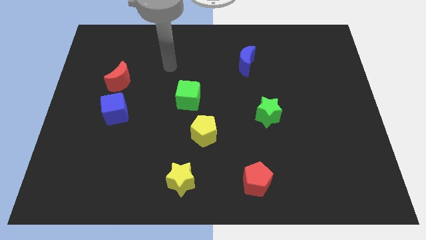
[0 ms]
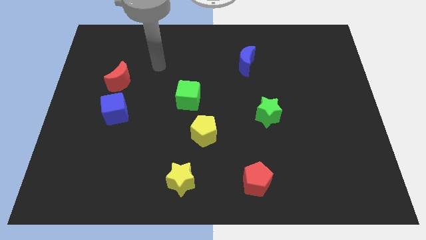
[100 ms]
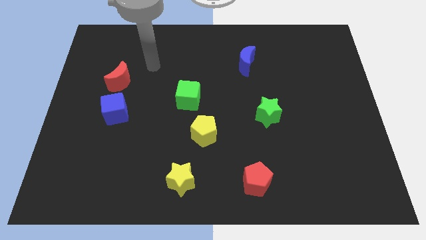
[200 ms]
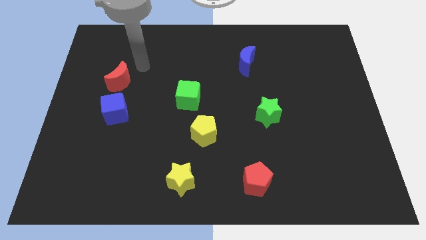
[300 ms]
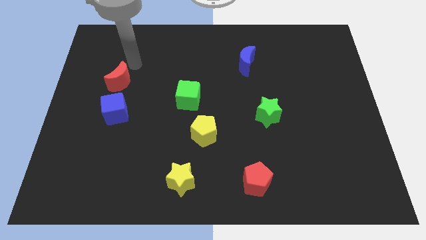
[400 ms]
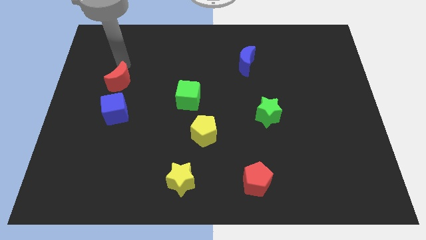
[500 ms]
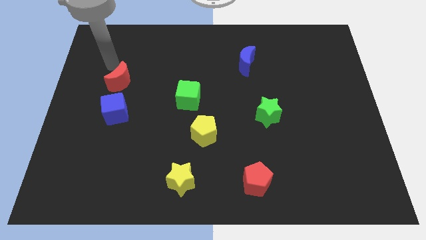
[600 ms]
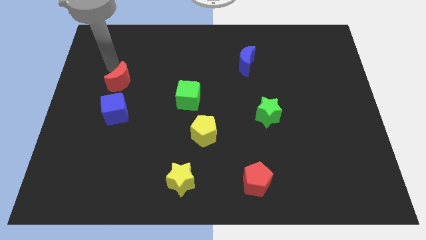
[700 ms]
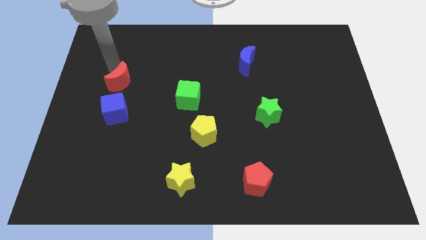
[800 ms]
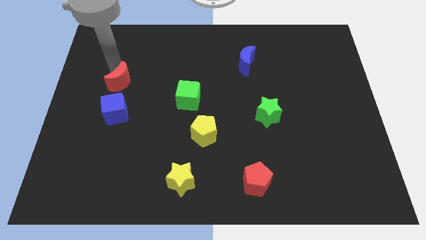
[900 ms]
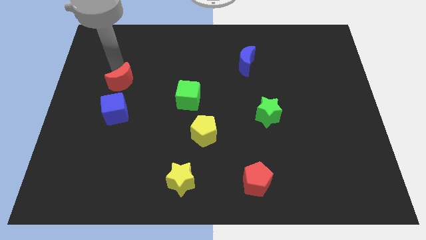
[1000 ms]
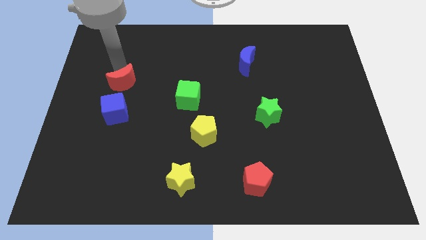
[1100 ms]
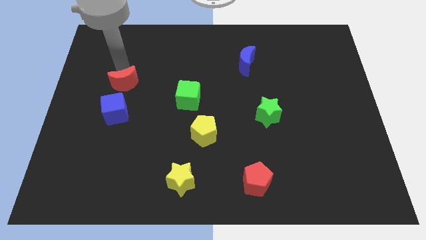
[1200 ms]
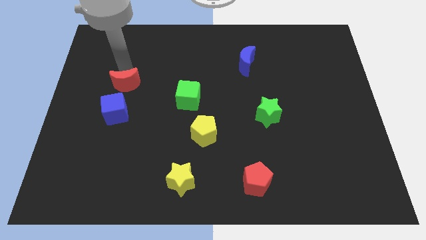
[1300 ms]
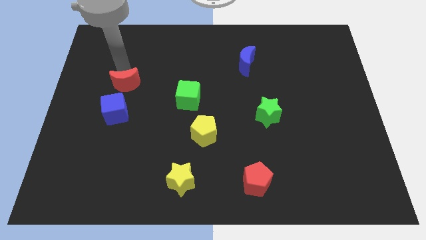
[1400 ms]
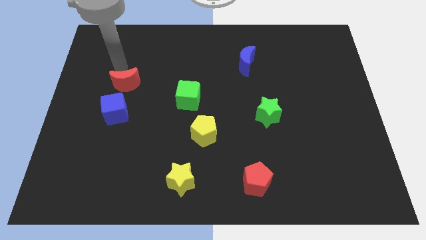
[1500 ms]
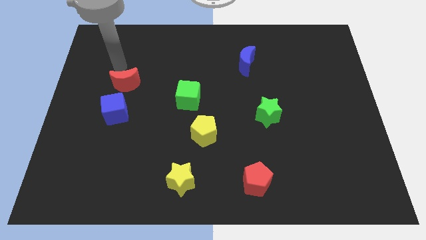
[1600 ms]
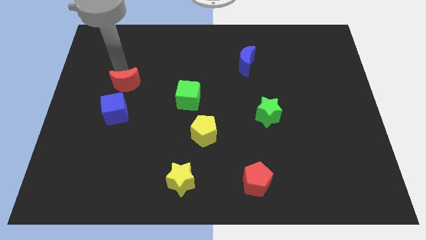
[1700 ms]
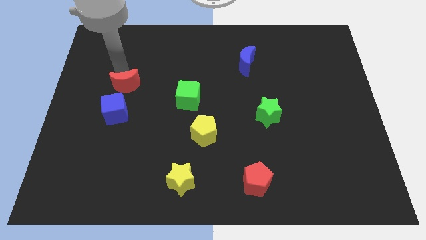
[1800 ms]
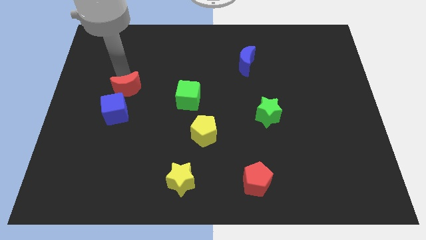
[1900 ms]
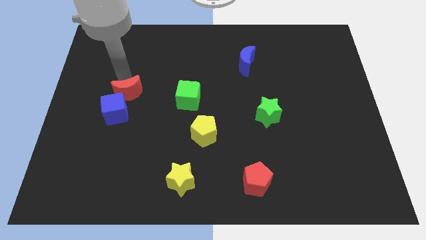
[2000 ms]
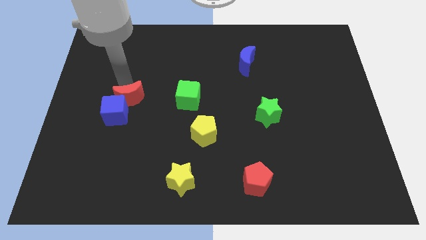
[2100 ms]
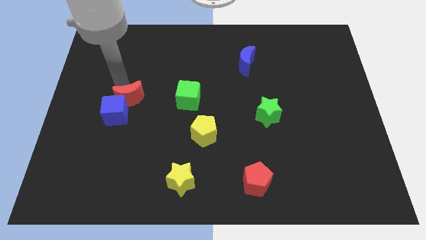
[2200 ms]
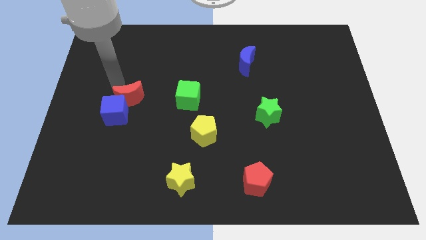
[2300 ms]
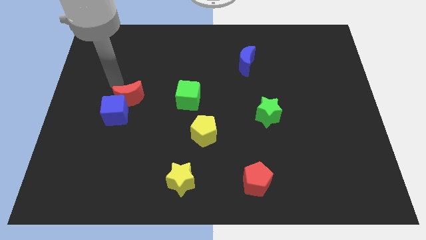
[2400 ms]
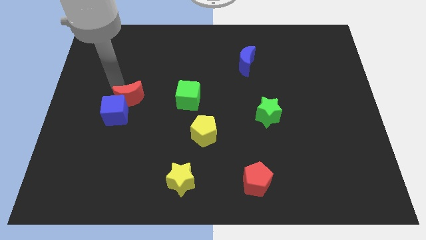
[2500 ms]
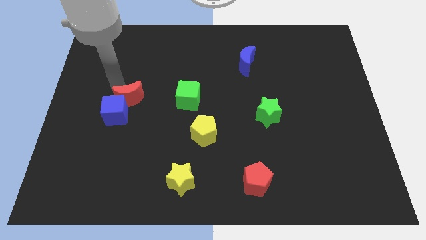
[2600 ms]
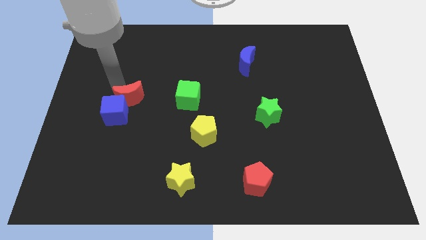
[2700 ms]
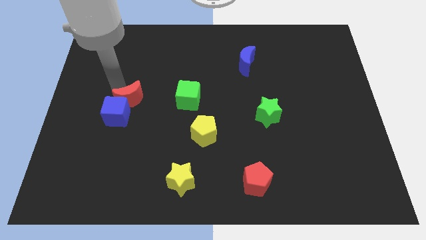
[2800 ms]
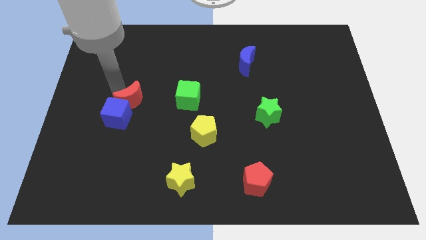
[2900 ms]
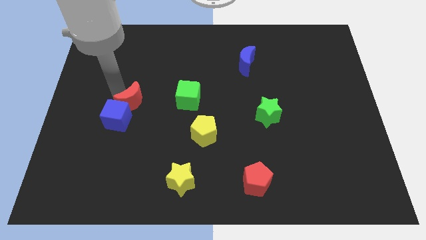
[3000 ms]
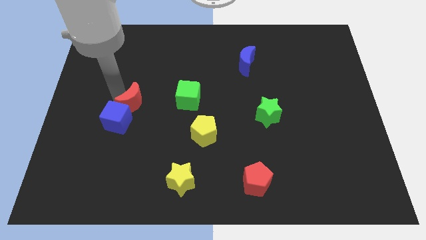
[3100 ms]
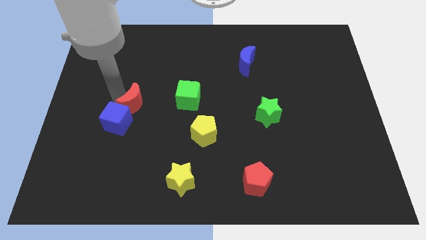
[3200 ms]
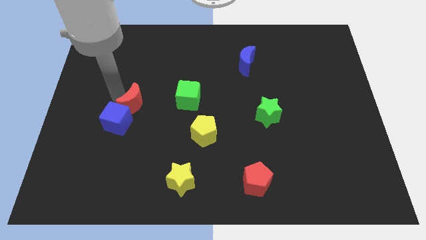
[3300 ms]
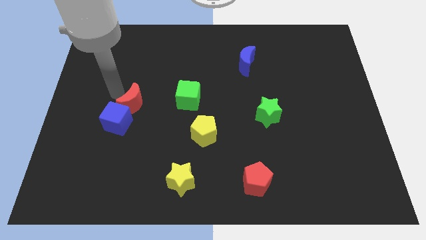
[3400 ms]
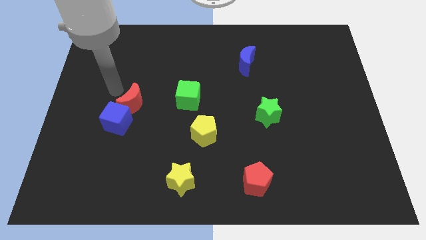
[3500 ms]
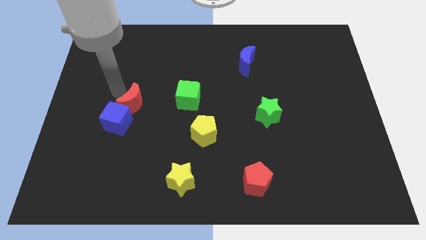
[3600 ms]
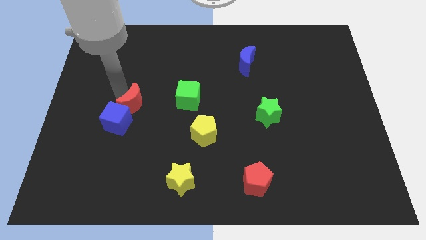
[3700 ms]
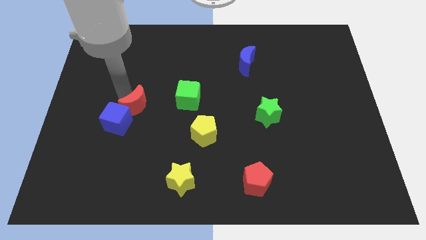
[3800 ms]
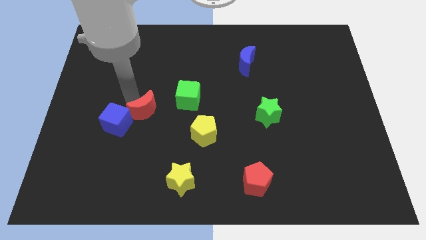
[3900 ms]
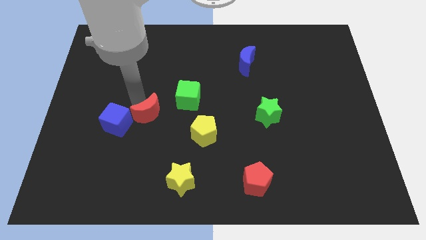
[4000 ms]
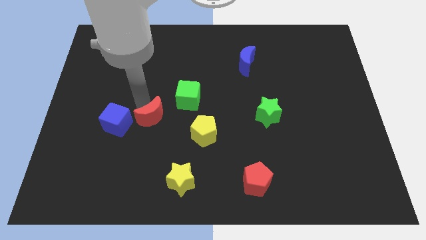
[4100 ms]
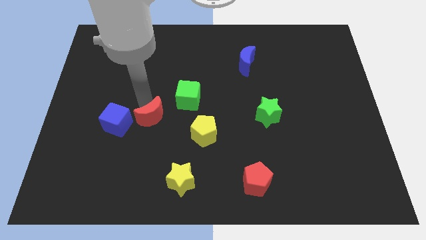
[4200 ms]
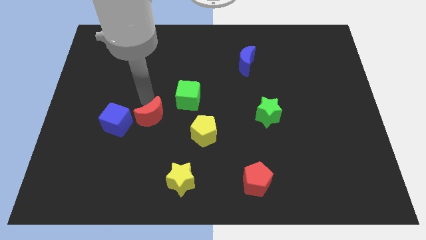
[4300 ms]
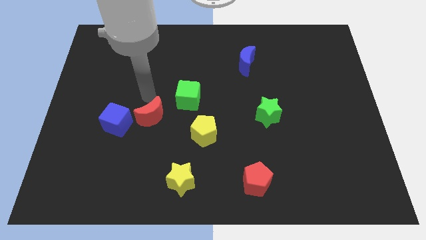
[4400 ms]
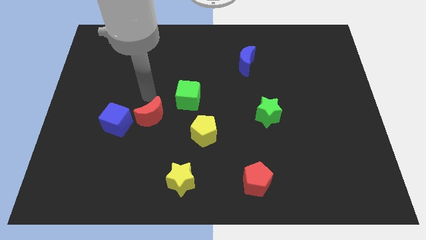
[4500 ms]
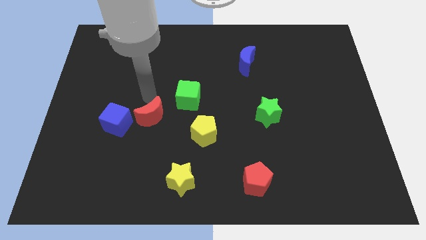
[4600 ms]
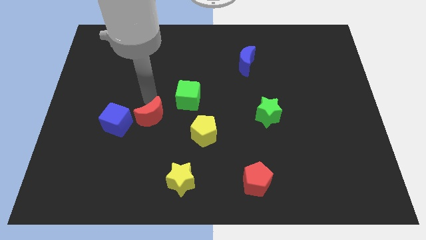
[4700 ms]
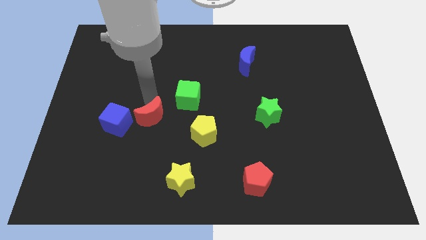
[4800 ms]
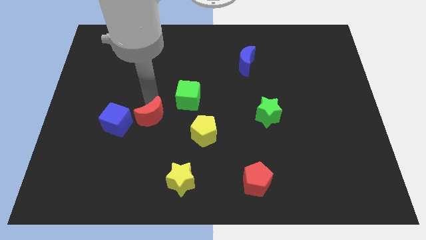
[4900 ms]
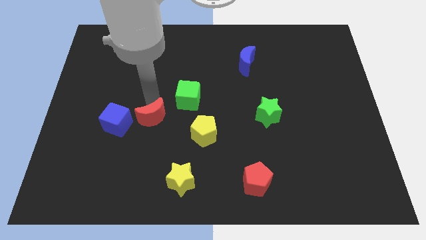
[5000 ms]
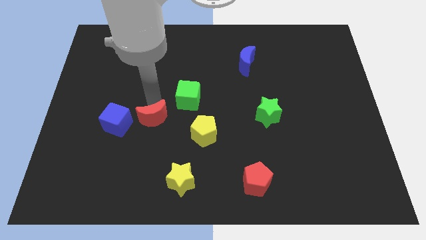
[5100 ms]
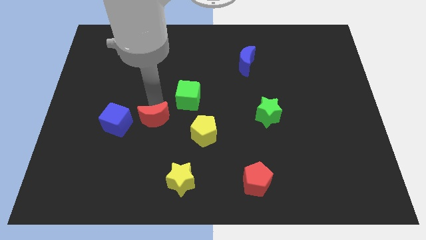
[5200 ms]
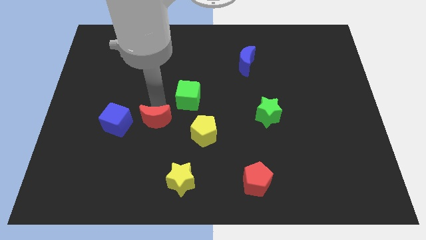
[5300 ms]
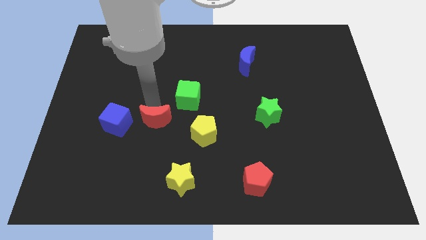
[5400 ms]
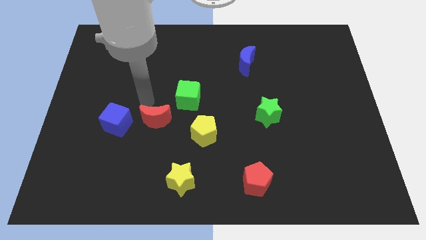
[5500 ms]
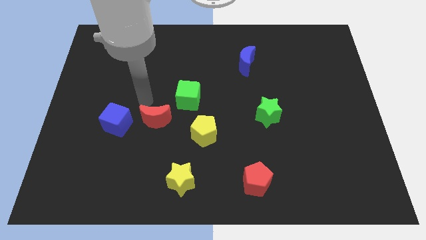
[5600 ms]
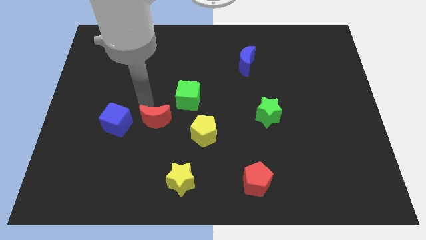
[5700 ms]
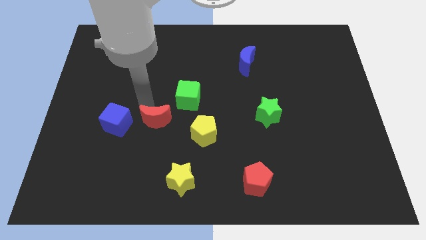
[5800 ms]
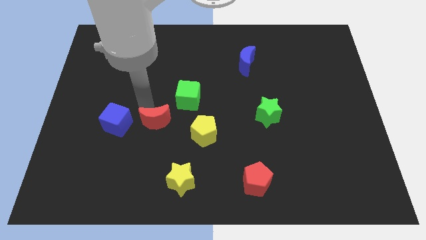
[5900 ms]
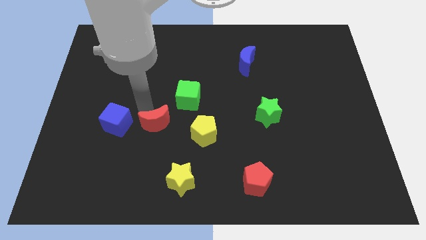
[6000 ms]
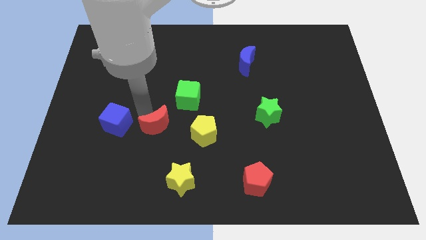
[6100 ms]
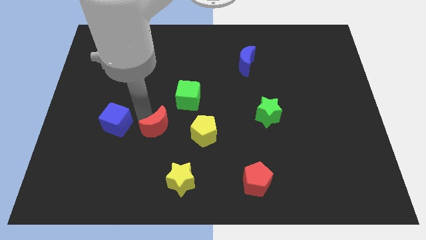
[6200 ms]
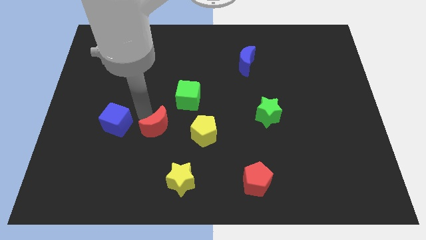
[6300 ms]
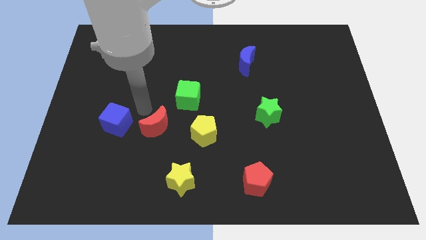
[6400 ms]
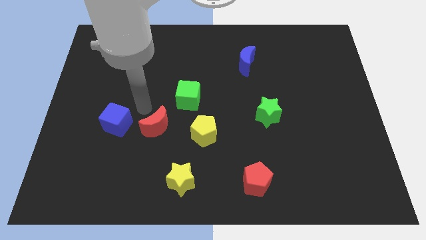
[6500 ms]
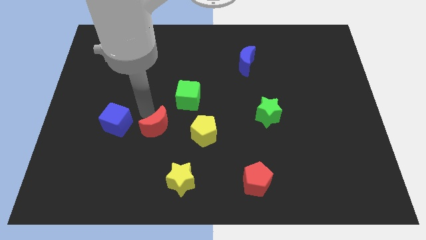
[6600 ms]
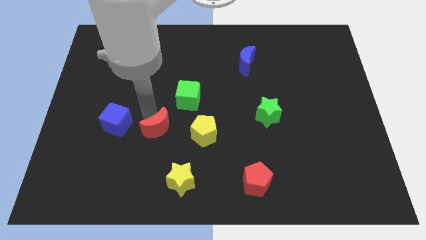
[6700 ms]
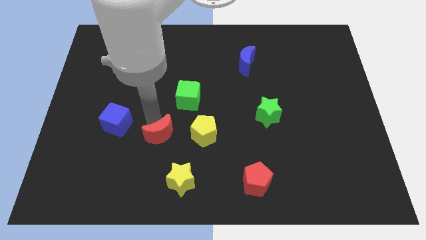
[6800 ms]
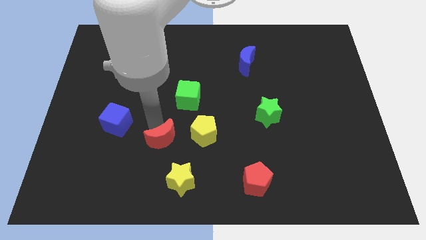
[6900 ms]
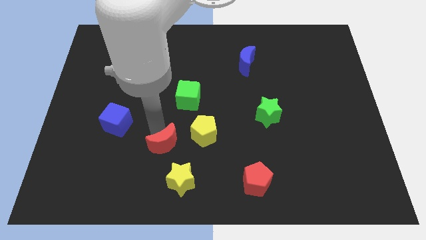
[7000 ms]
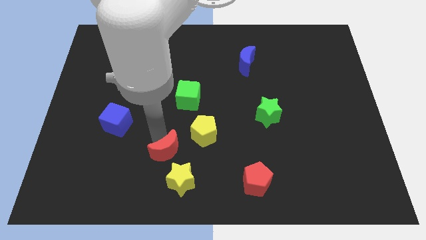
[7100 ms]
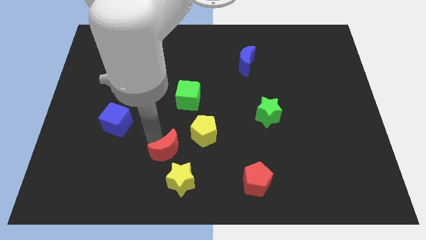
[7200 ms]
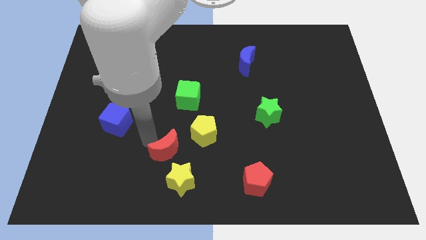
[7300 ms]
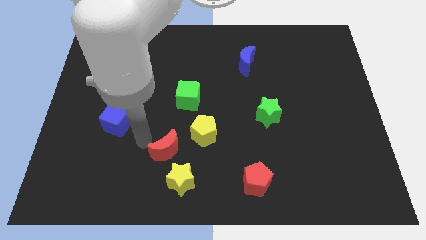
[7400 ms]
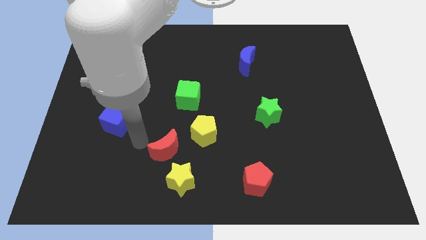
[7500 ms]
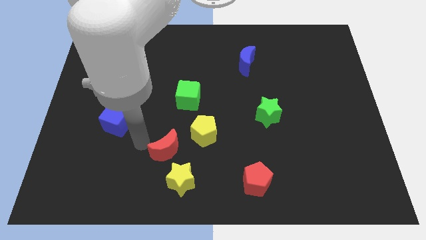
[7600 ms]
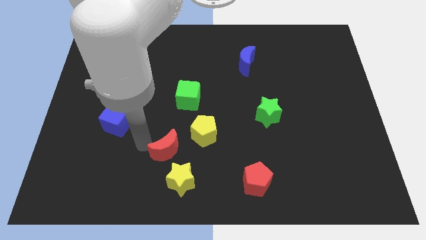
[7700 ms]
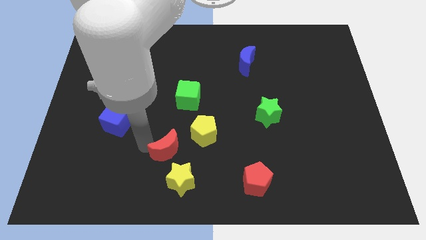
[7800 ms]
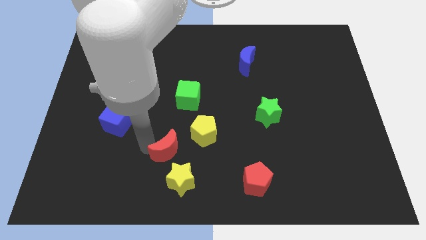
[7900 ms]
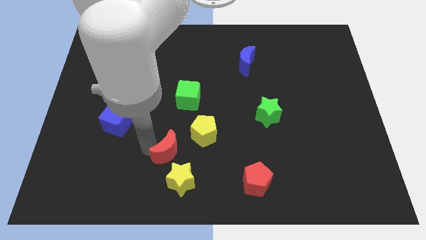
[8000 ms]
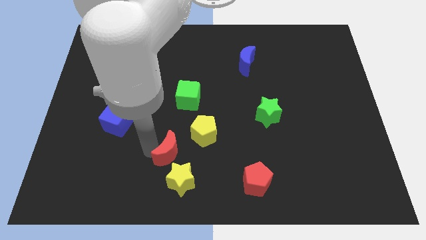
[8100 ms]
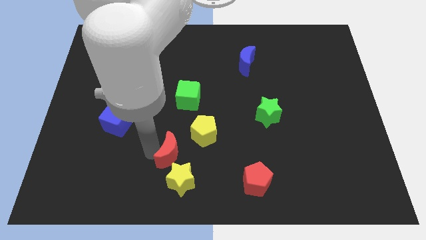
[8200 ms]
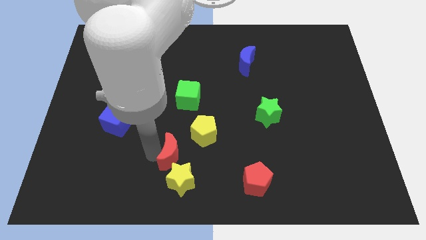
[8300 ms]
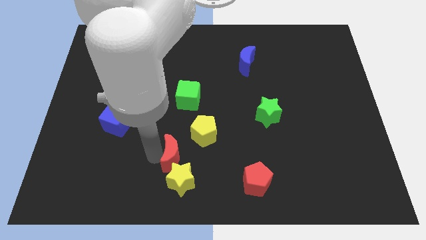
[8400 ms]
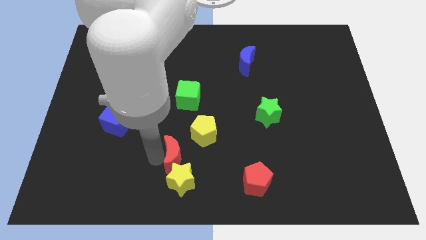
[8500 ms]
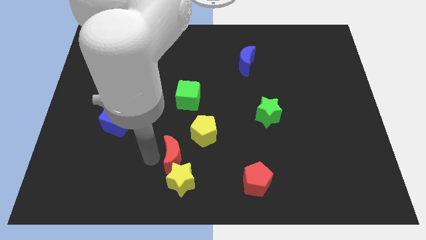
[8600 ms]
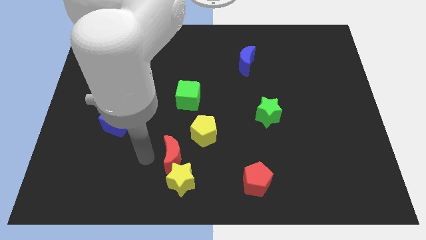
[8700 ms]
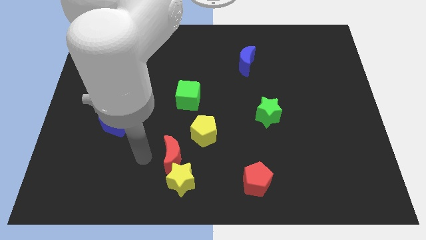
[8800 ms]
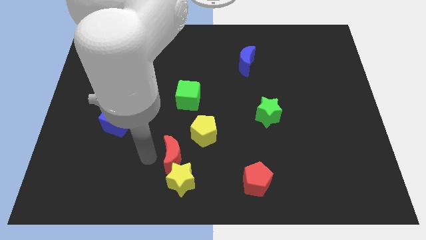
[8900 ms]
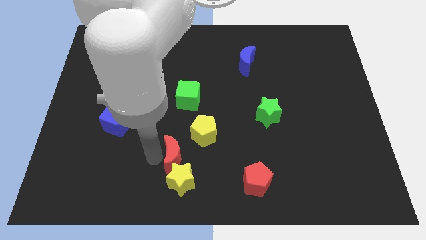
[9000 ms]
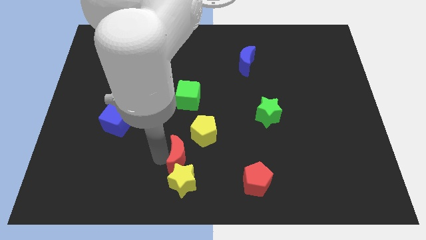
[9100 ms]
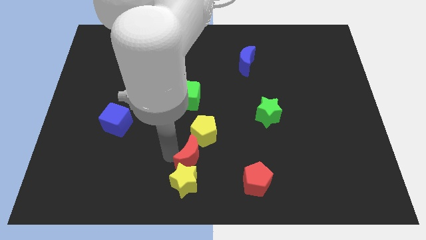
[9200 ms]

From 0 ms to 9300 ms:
slide the red moon to the bottom
